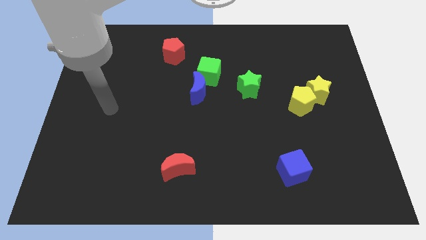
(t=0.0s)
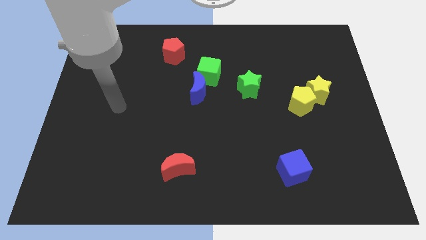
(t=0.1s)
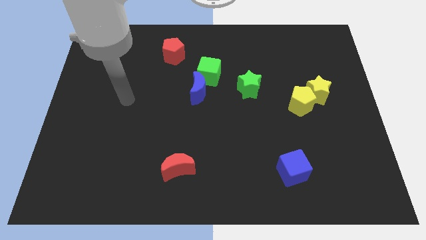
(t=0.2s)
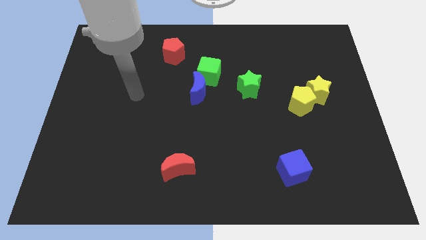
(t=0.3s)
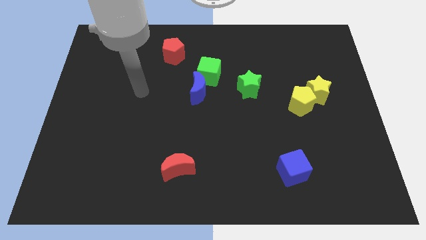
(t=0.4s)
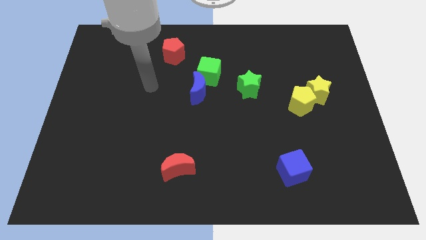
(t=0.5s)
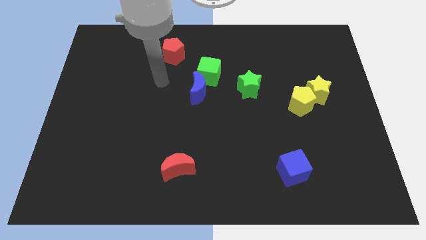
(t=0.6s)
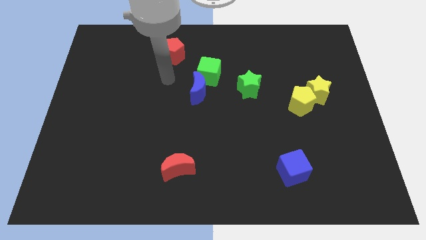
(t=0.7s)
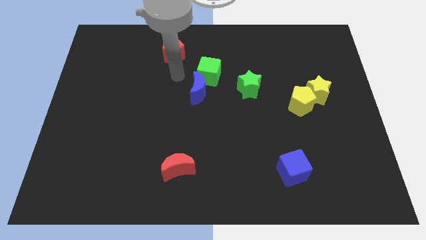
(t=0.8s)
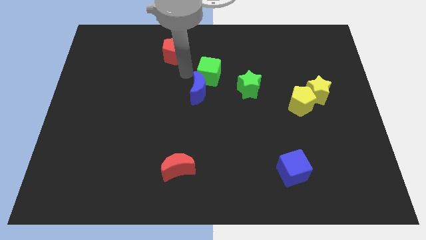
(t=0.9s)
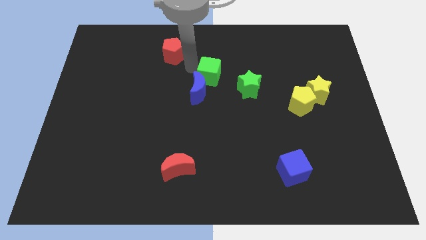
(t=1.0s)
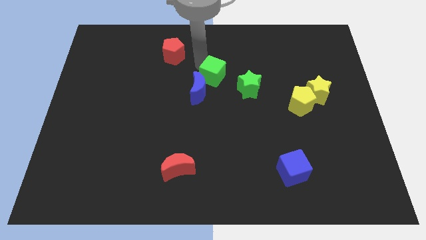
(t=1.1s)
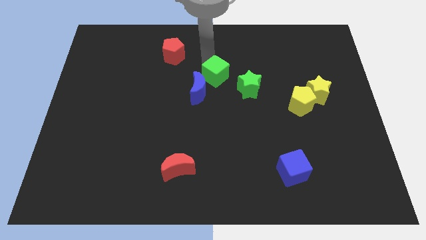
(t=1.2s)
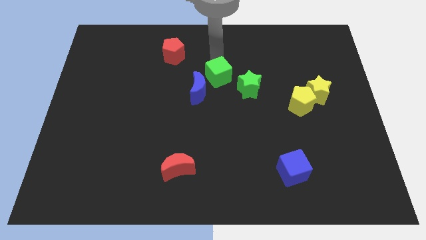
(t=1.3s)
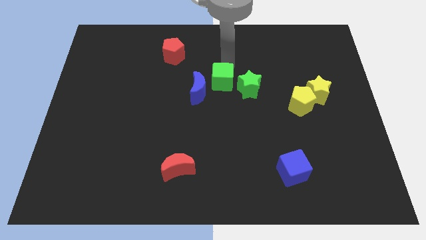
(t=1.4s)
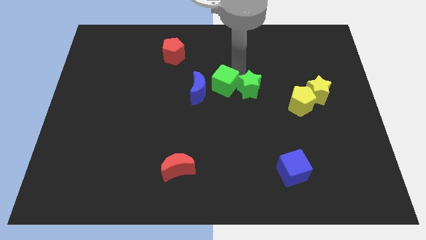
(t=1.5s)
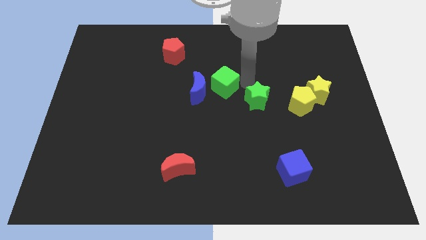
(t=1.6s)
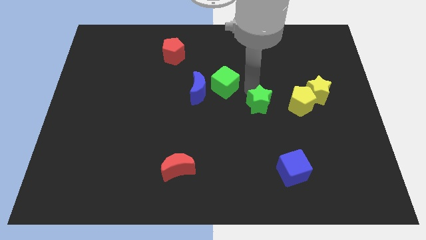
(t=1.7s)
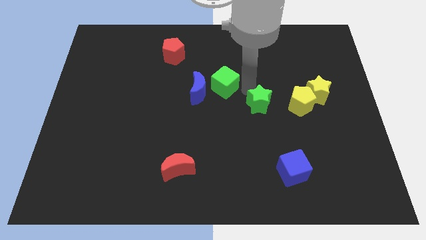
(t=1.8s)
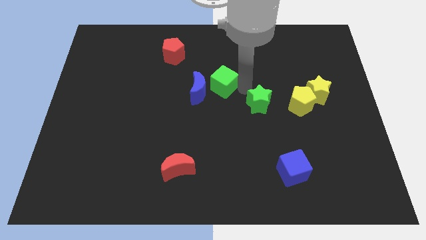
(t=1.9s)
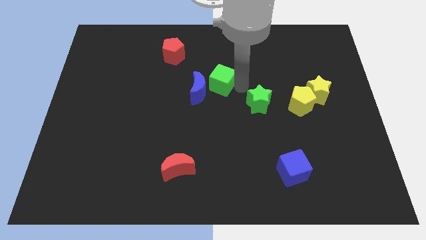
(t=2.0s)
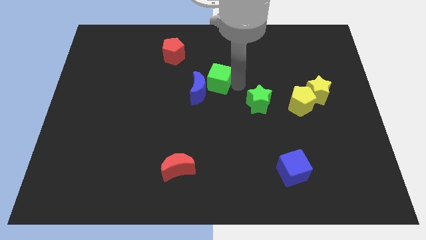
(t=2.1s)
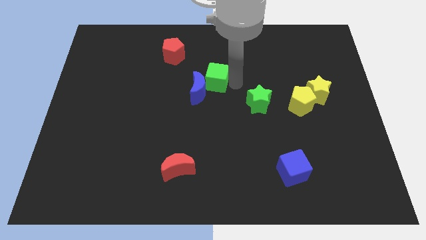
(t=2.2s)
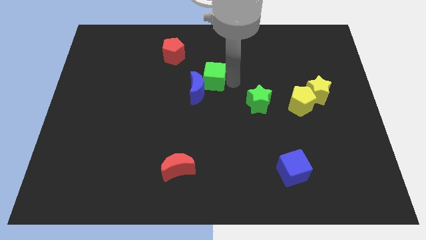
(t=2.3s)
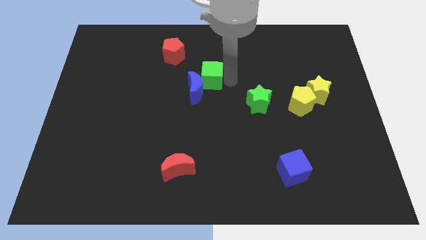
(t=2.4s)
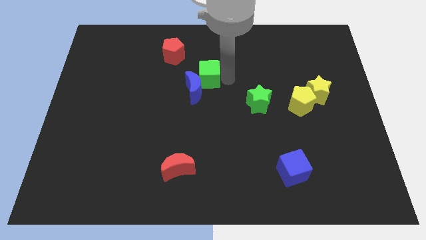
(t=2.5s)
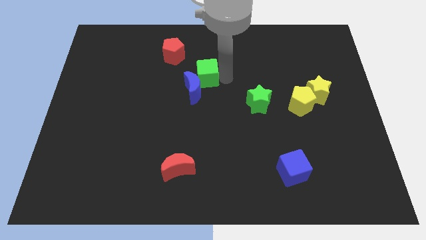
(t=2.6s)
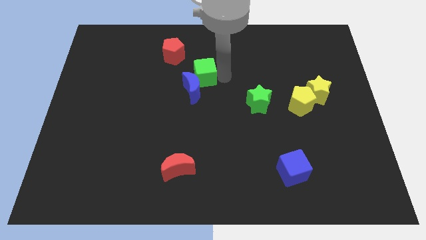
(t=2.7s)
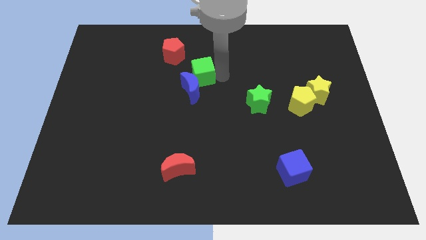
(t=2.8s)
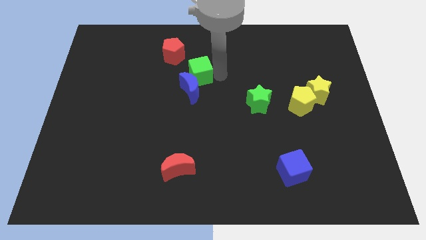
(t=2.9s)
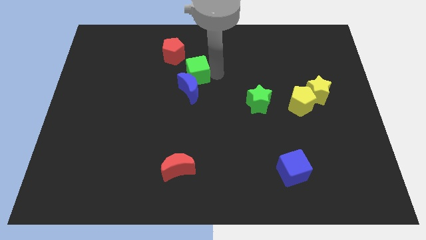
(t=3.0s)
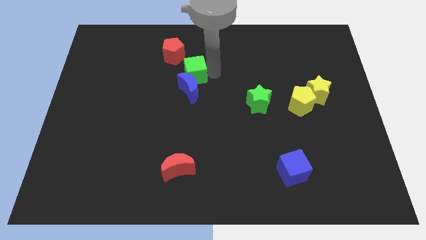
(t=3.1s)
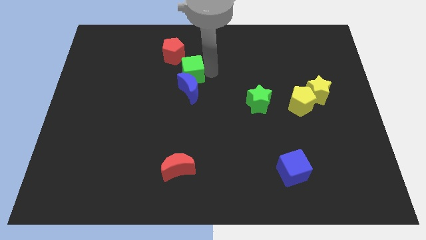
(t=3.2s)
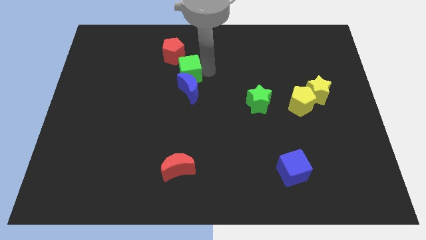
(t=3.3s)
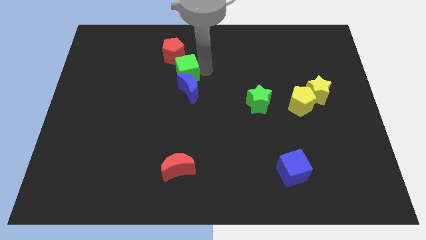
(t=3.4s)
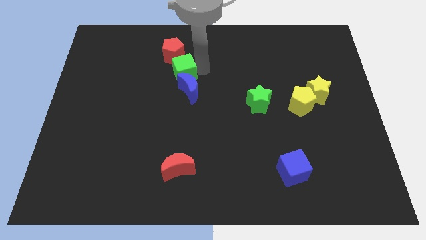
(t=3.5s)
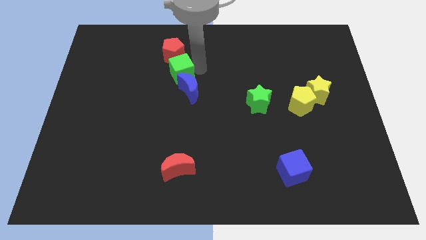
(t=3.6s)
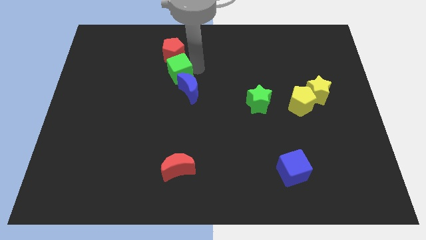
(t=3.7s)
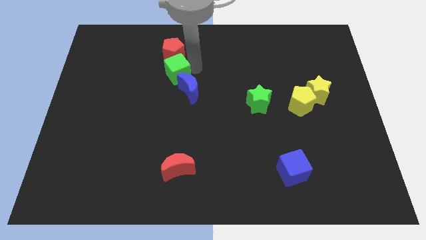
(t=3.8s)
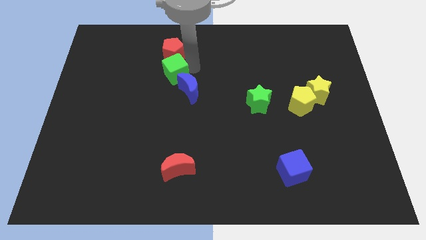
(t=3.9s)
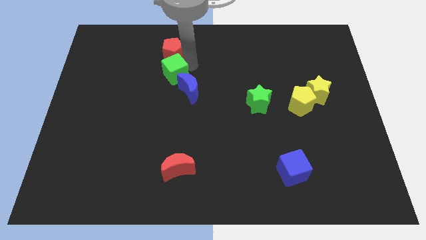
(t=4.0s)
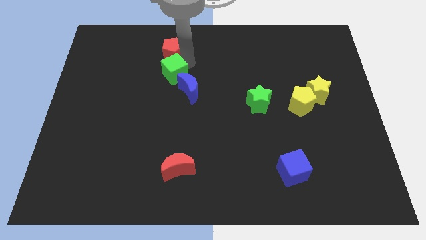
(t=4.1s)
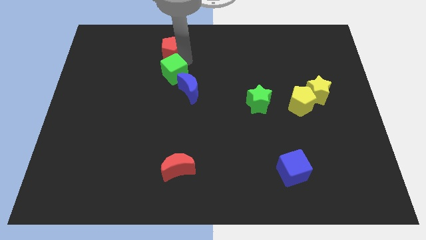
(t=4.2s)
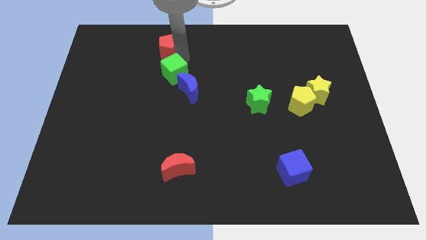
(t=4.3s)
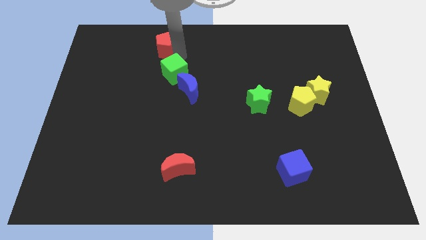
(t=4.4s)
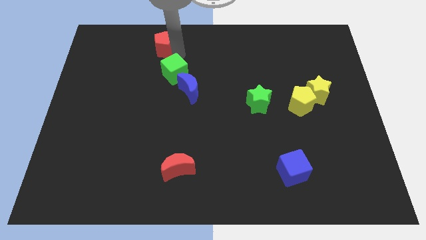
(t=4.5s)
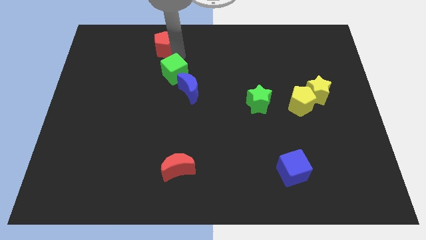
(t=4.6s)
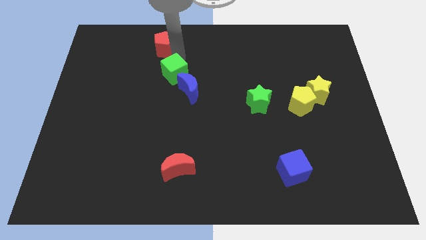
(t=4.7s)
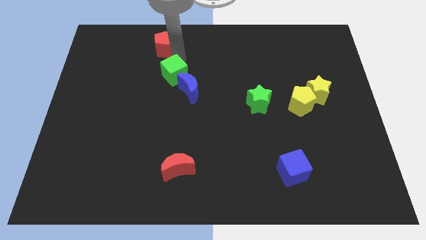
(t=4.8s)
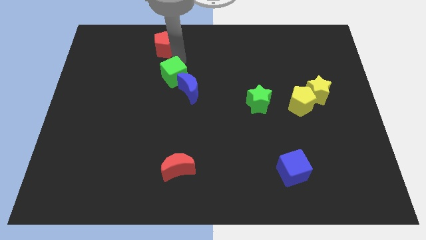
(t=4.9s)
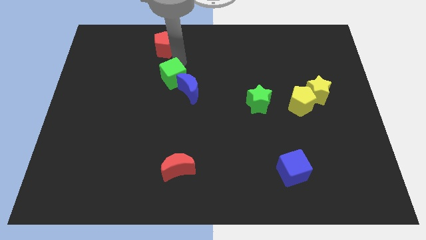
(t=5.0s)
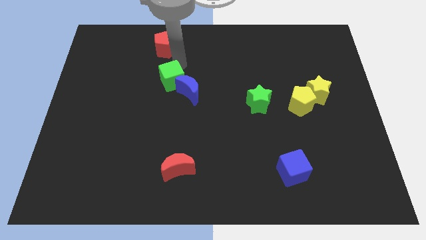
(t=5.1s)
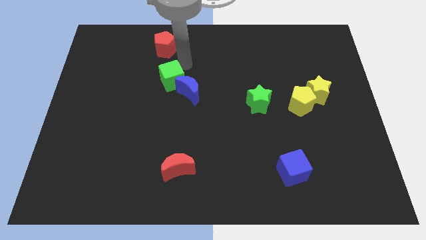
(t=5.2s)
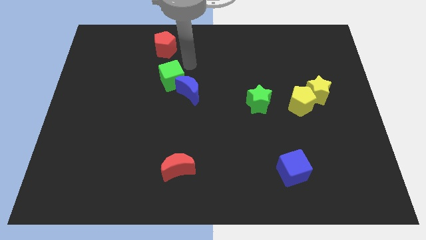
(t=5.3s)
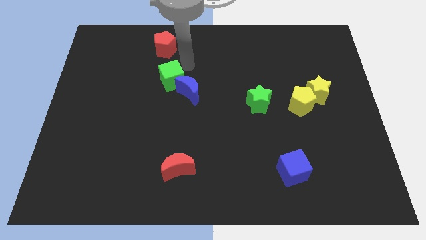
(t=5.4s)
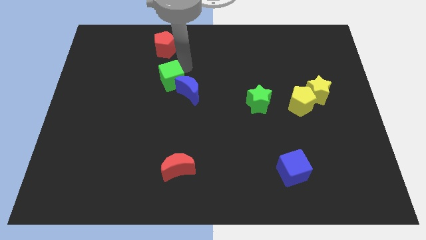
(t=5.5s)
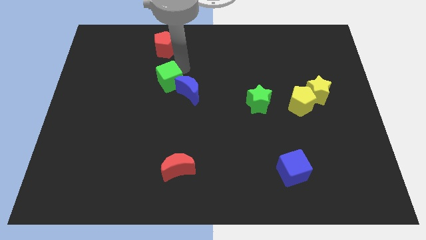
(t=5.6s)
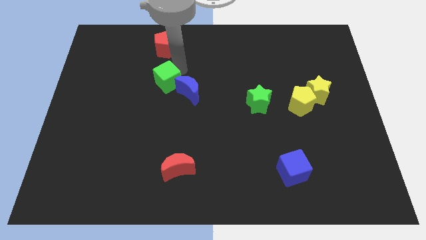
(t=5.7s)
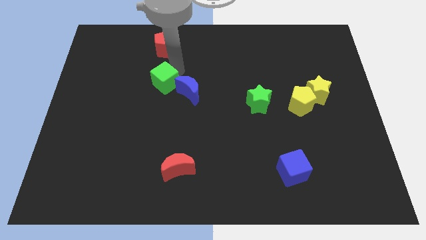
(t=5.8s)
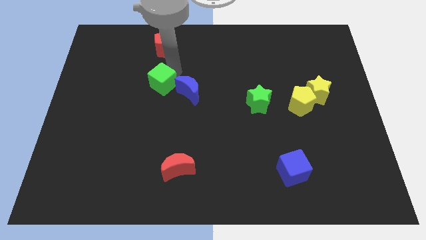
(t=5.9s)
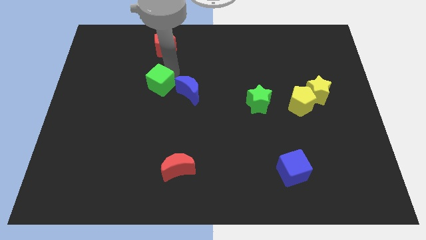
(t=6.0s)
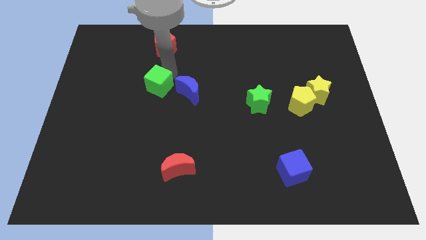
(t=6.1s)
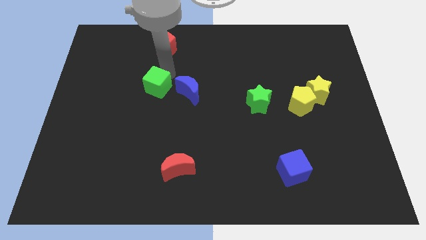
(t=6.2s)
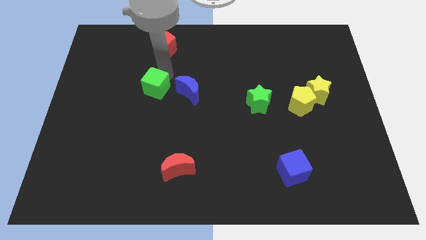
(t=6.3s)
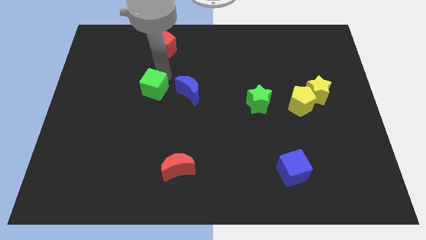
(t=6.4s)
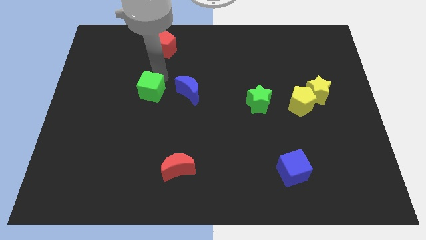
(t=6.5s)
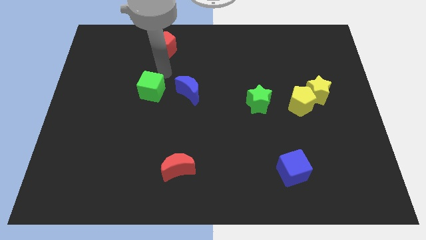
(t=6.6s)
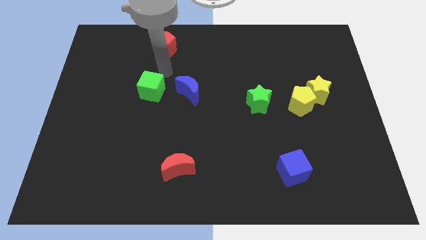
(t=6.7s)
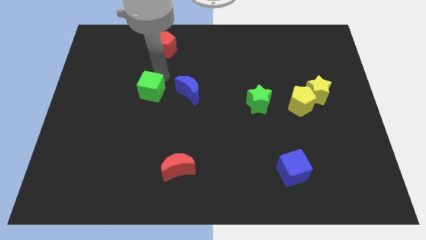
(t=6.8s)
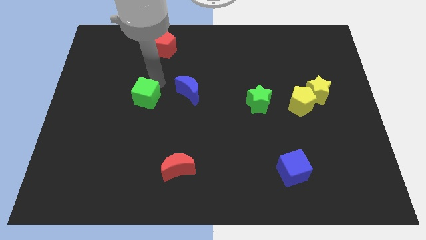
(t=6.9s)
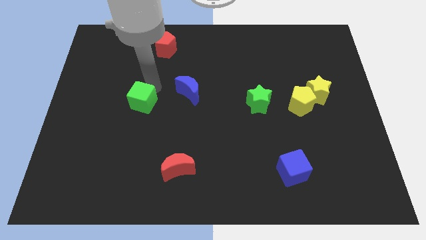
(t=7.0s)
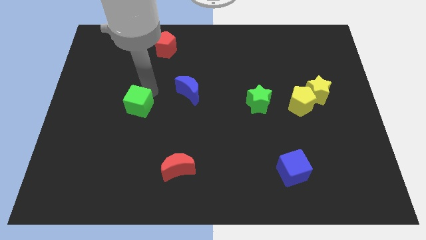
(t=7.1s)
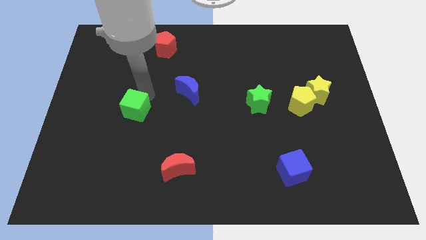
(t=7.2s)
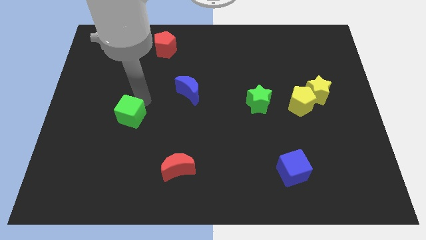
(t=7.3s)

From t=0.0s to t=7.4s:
push the green cube downwards and then to the left

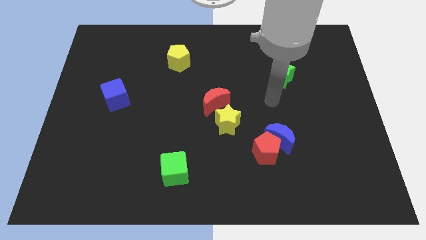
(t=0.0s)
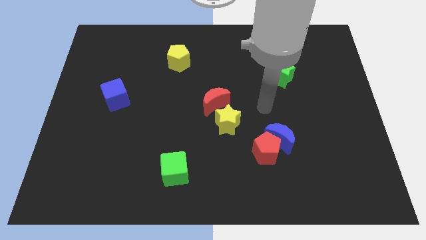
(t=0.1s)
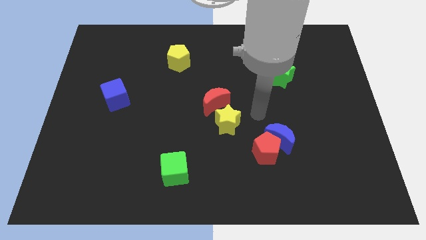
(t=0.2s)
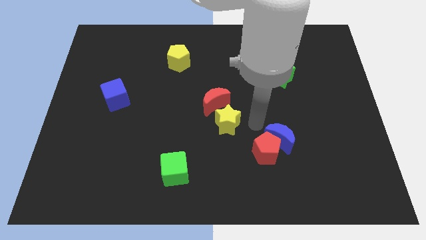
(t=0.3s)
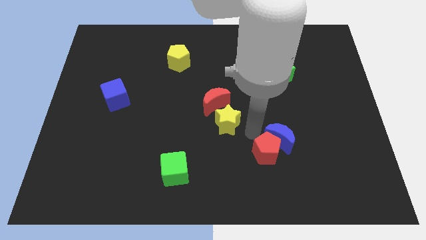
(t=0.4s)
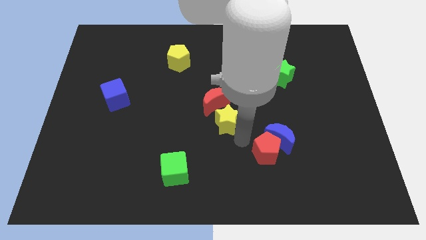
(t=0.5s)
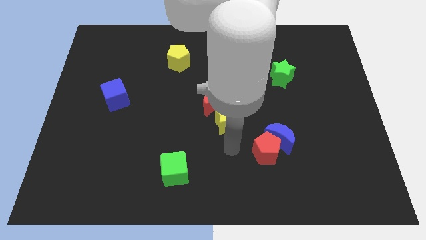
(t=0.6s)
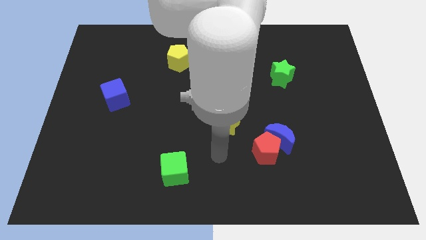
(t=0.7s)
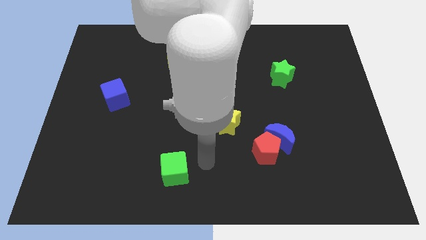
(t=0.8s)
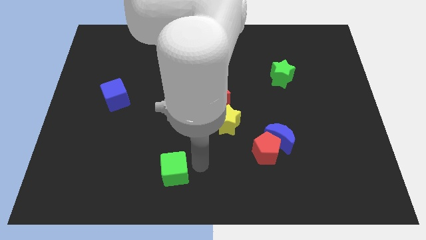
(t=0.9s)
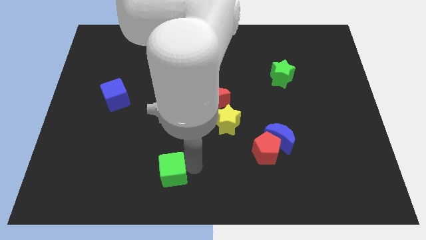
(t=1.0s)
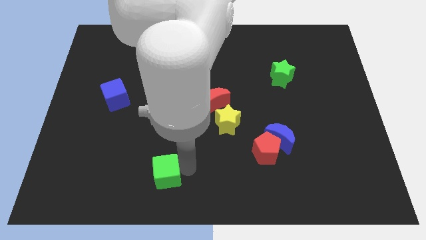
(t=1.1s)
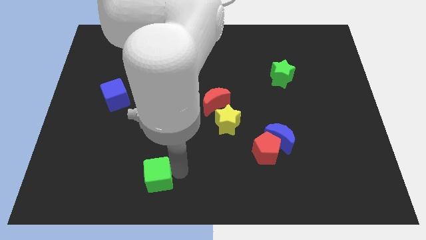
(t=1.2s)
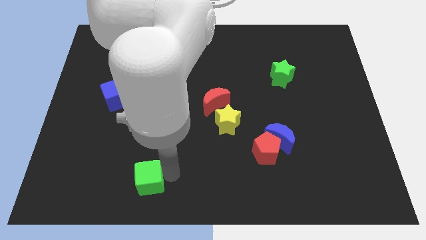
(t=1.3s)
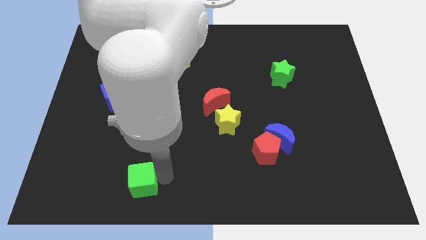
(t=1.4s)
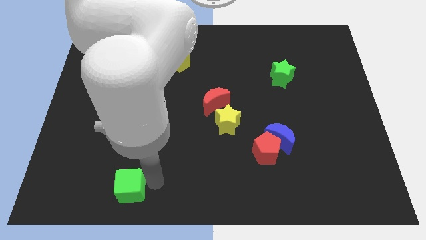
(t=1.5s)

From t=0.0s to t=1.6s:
push the green cube slightly to the left
